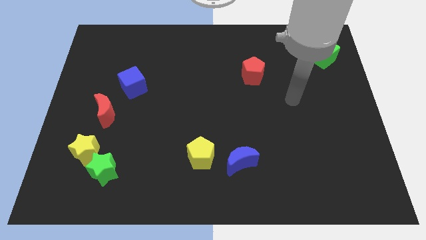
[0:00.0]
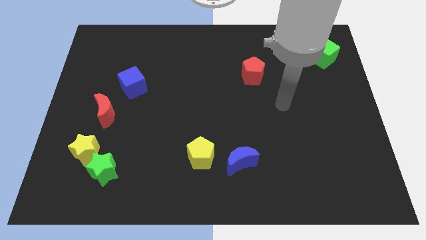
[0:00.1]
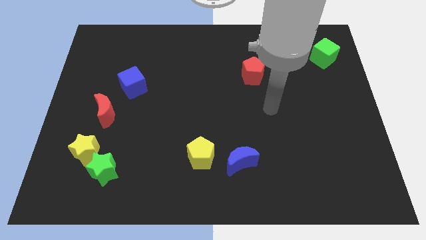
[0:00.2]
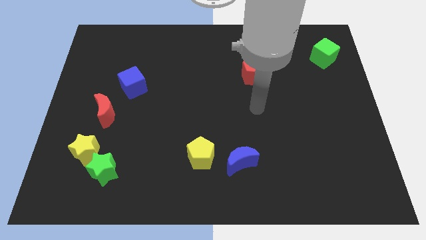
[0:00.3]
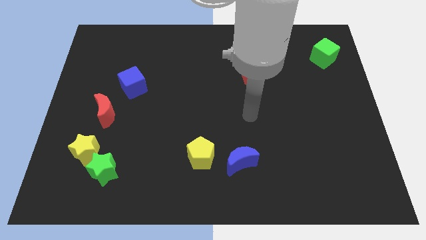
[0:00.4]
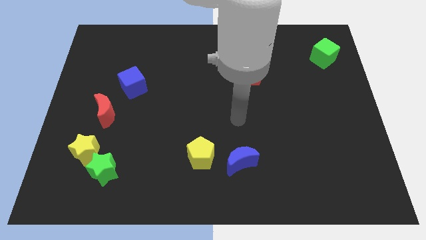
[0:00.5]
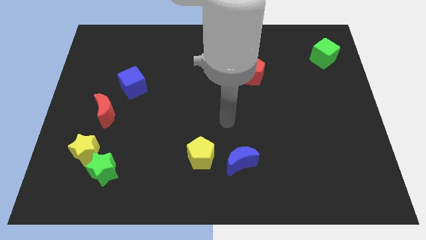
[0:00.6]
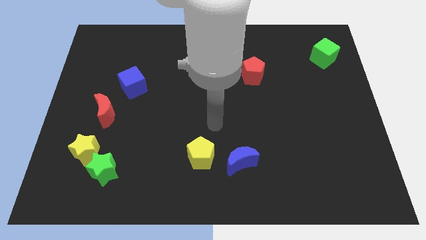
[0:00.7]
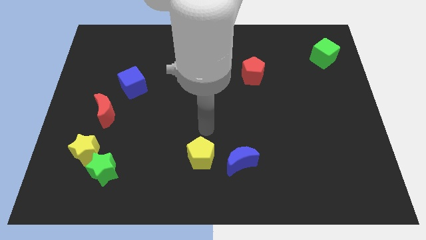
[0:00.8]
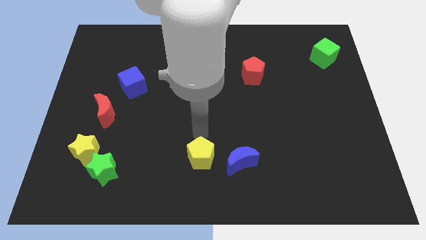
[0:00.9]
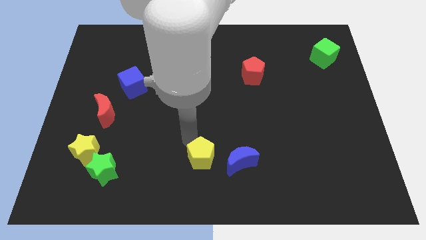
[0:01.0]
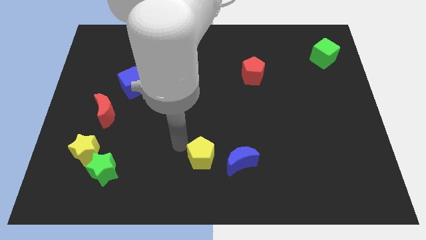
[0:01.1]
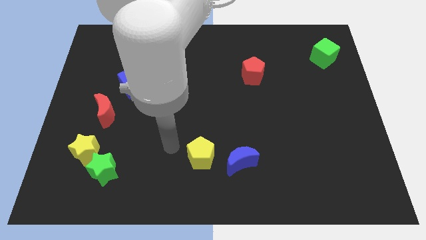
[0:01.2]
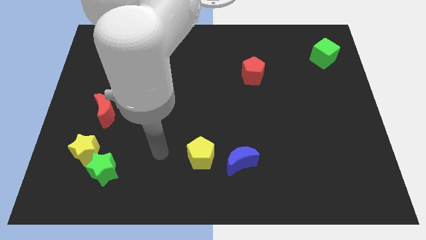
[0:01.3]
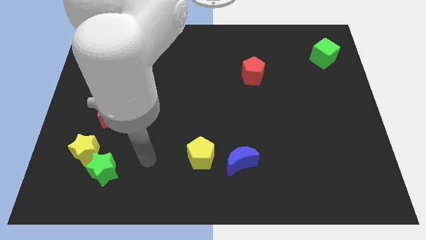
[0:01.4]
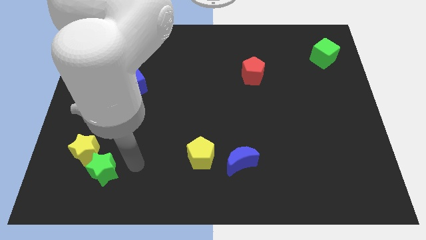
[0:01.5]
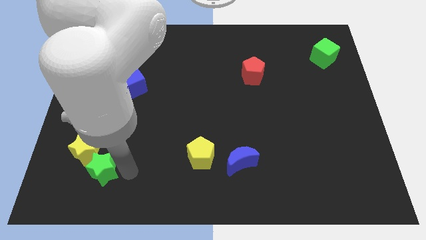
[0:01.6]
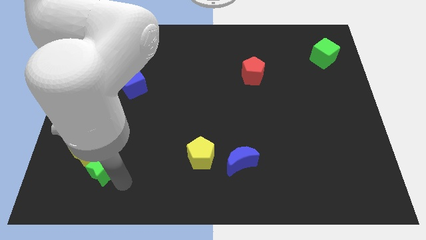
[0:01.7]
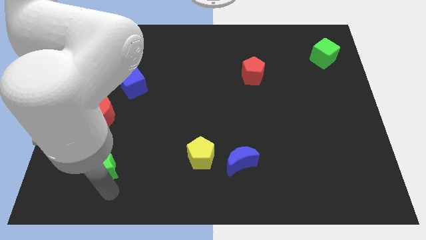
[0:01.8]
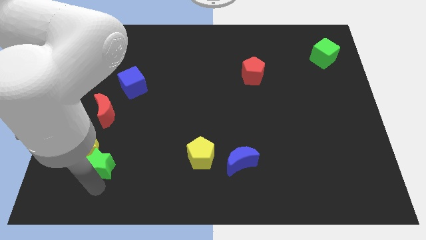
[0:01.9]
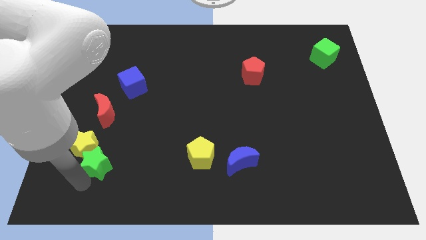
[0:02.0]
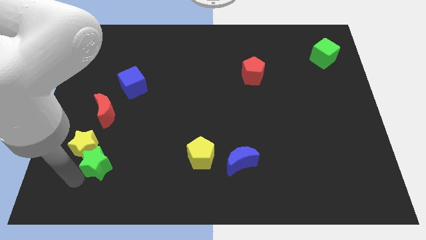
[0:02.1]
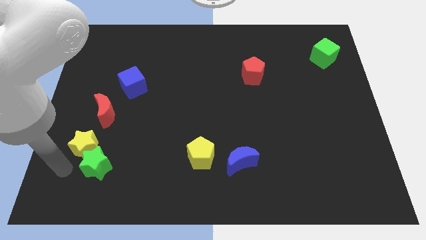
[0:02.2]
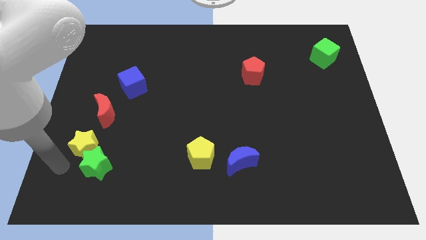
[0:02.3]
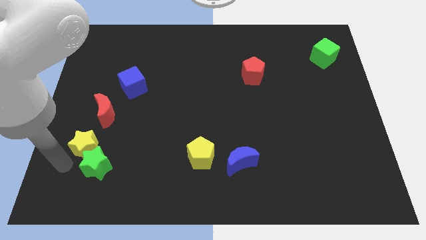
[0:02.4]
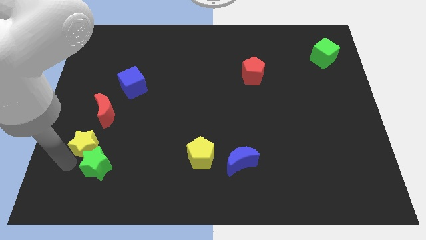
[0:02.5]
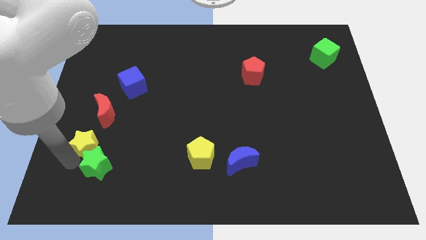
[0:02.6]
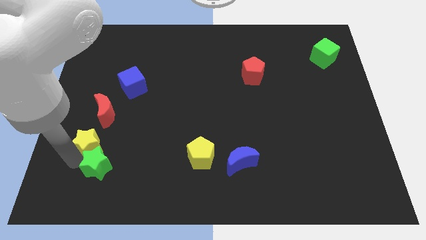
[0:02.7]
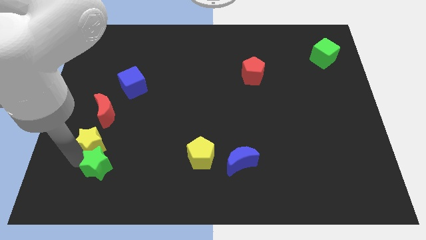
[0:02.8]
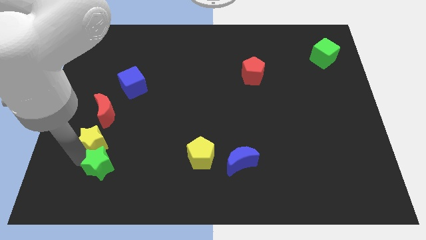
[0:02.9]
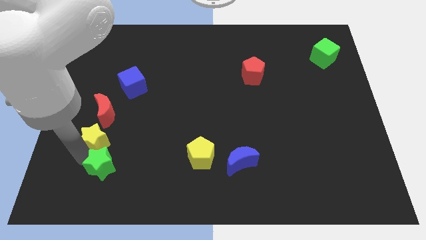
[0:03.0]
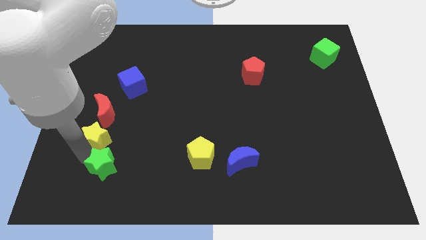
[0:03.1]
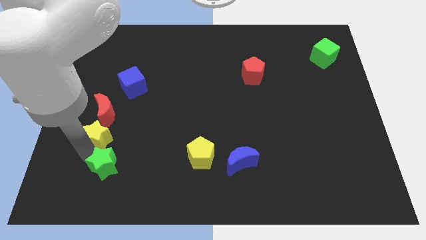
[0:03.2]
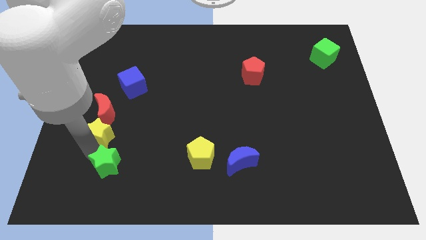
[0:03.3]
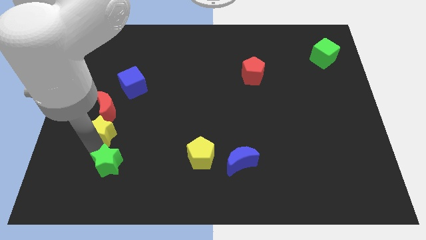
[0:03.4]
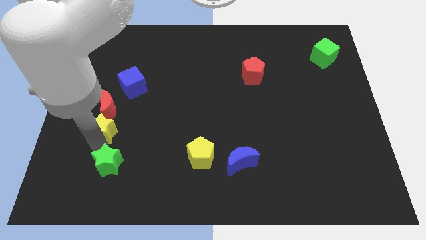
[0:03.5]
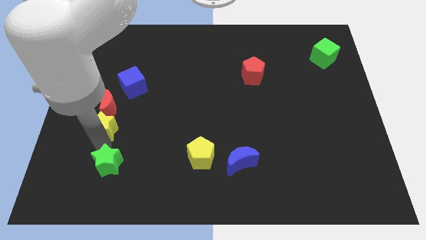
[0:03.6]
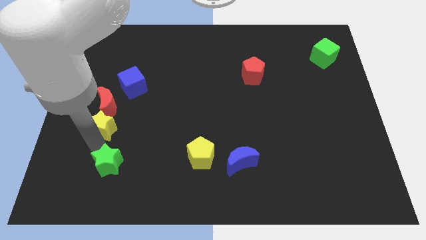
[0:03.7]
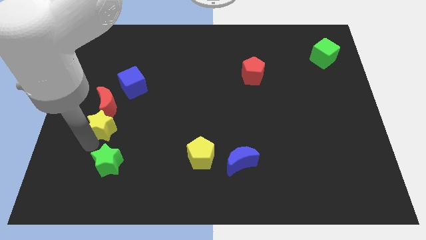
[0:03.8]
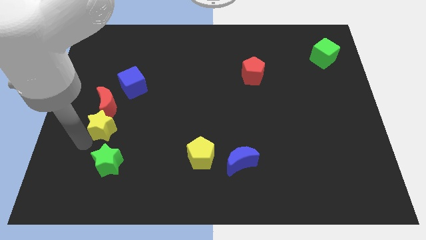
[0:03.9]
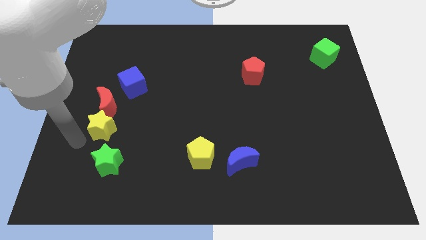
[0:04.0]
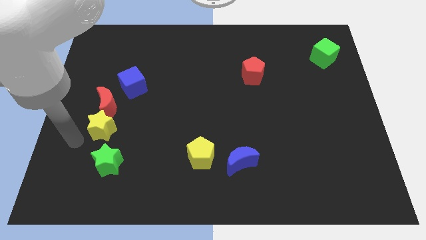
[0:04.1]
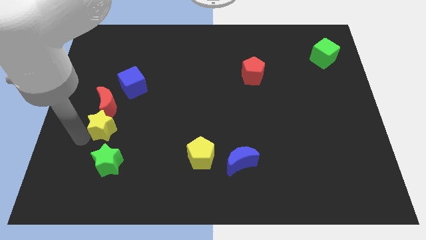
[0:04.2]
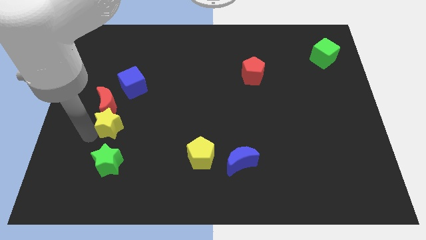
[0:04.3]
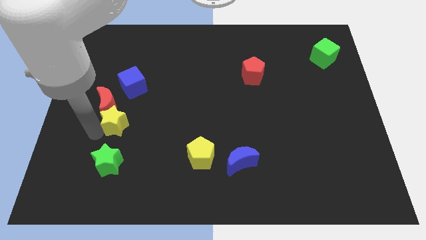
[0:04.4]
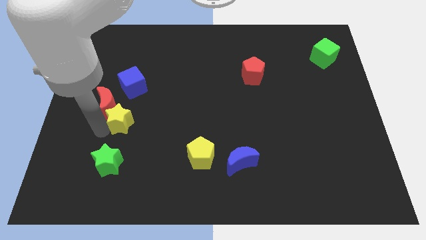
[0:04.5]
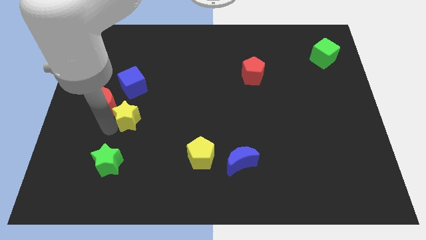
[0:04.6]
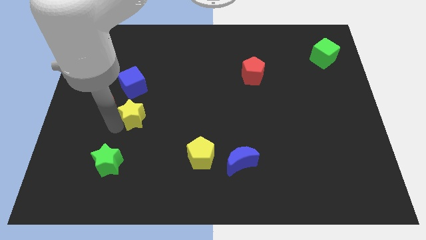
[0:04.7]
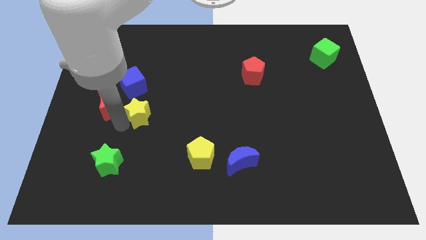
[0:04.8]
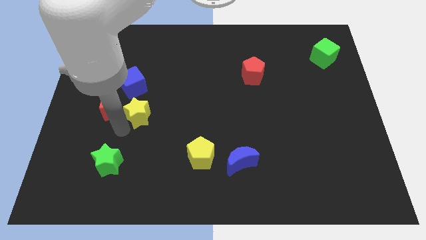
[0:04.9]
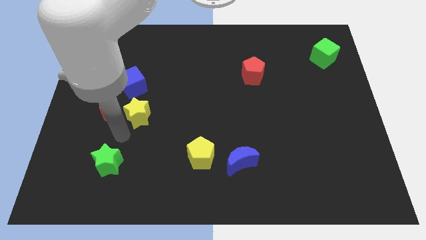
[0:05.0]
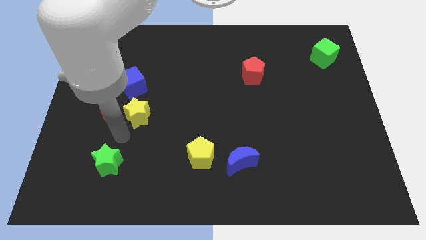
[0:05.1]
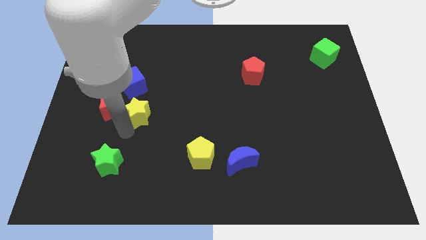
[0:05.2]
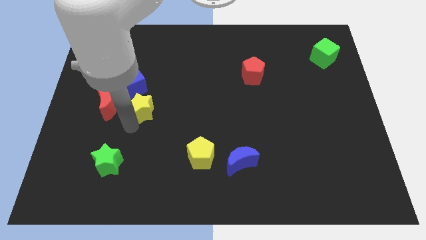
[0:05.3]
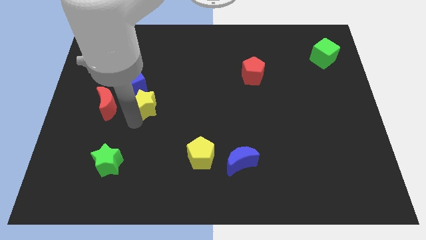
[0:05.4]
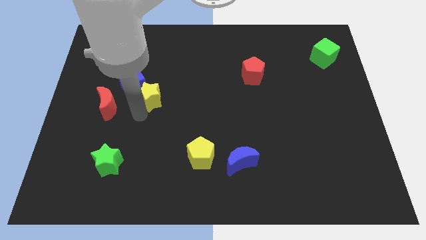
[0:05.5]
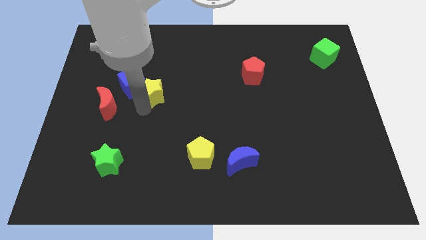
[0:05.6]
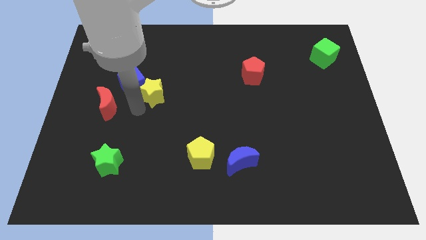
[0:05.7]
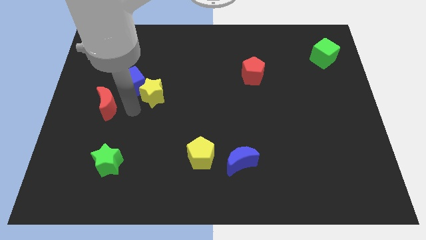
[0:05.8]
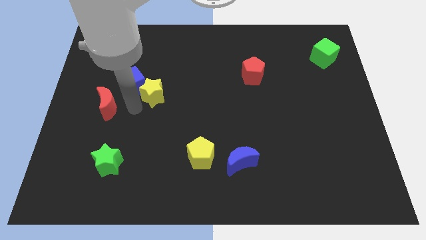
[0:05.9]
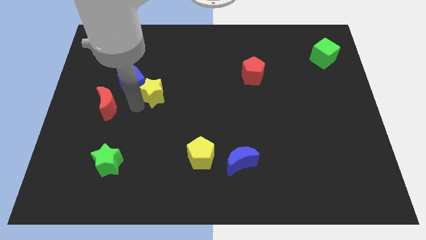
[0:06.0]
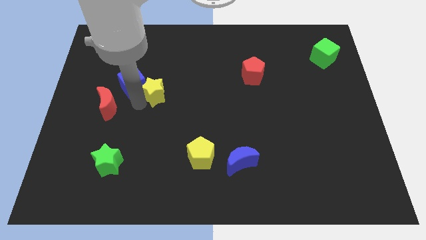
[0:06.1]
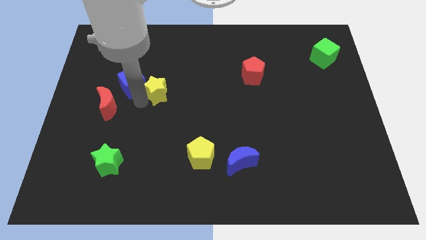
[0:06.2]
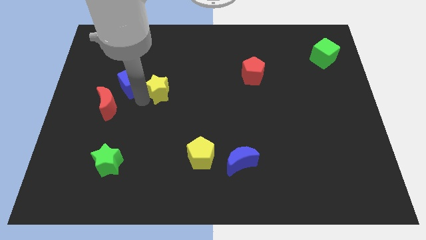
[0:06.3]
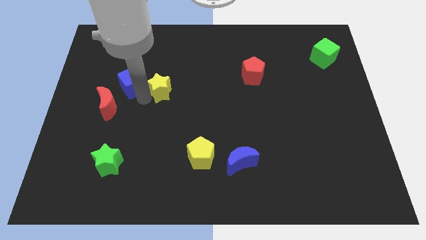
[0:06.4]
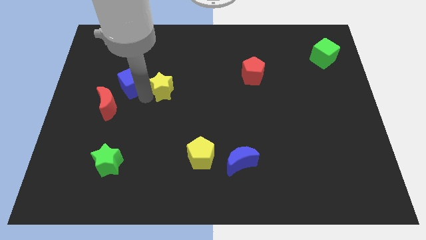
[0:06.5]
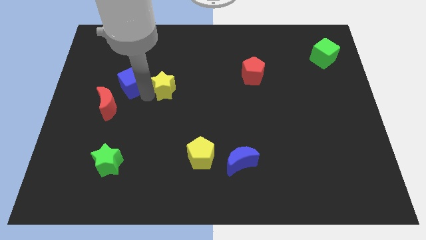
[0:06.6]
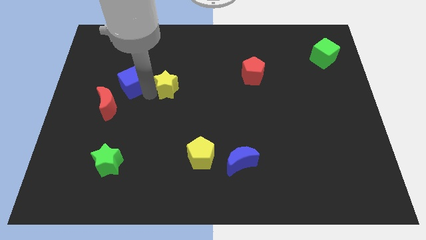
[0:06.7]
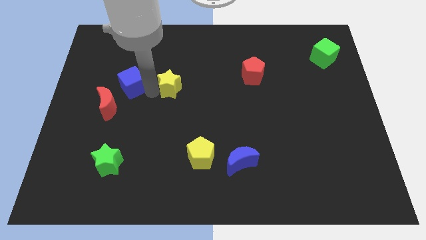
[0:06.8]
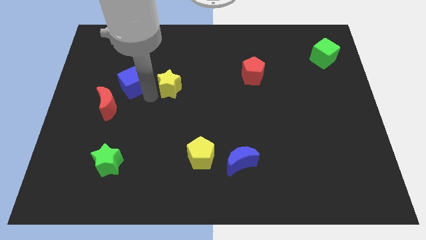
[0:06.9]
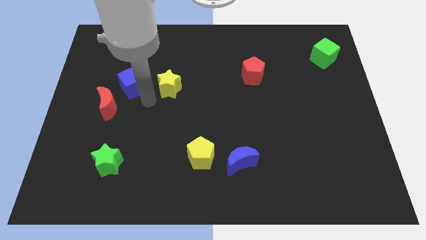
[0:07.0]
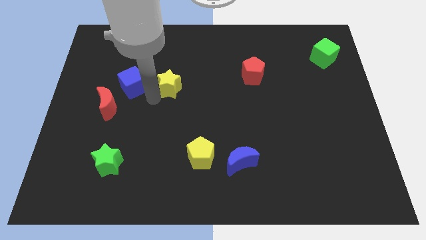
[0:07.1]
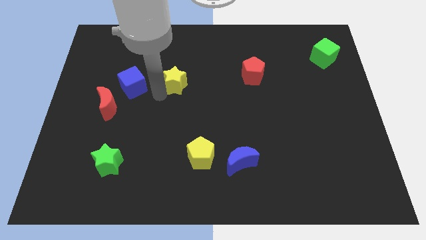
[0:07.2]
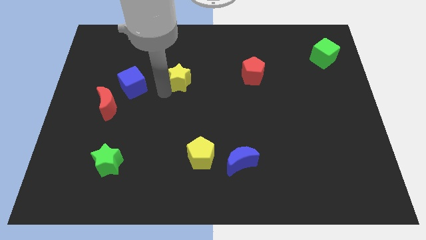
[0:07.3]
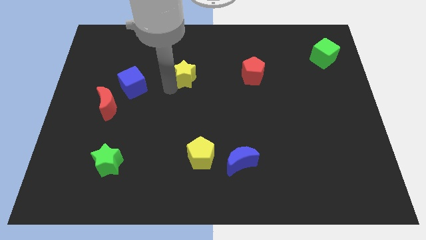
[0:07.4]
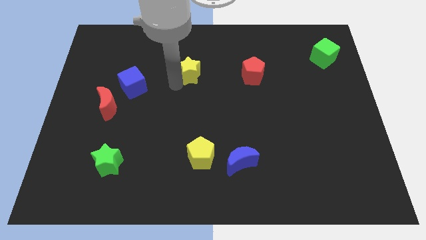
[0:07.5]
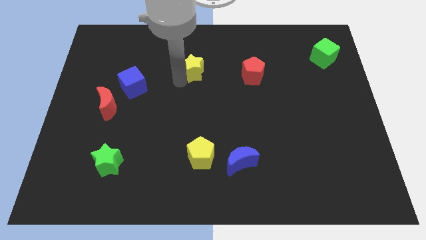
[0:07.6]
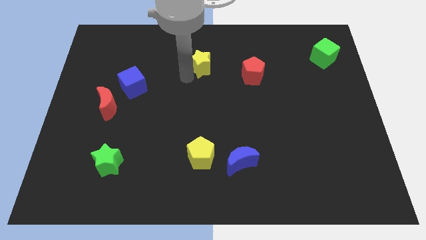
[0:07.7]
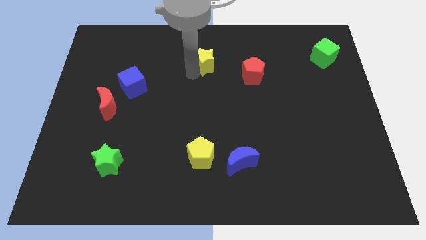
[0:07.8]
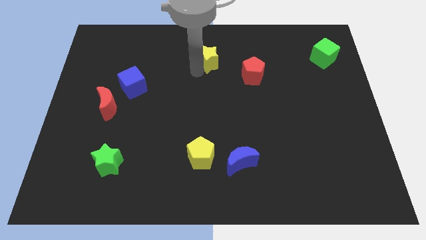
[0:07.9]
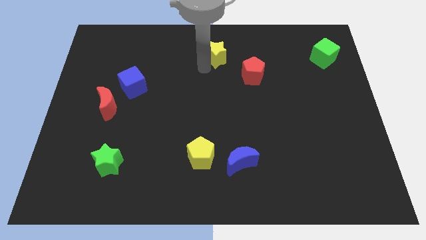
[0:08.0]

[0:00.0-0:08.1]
put the yellow star to the top
